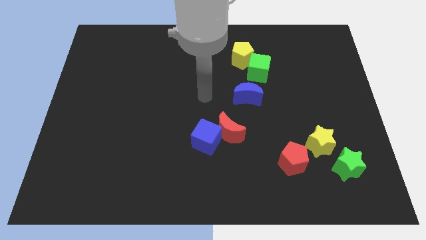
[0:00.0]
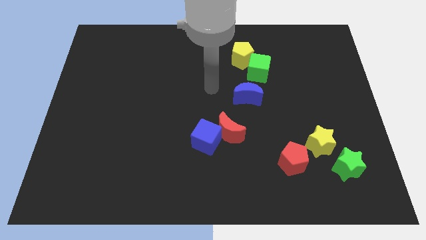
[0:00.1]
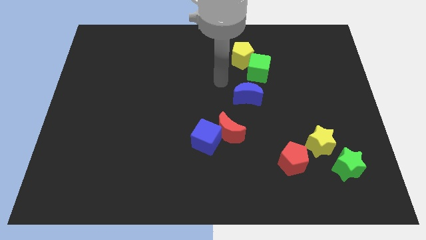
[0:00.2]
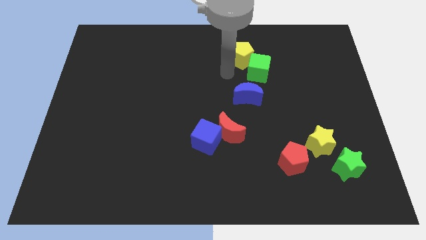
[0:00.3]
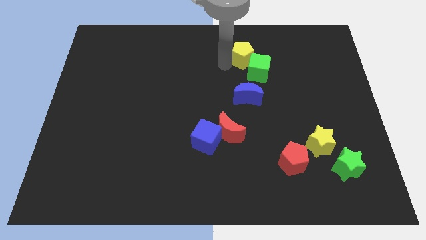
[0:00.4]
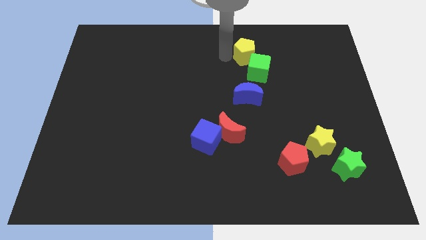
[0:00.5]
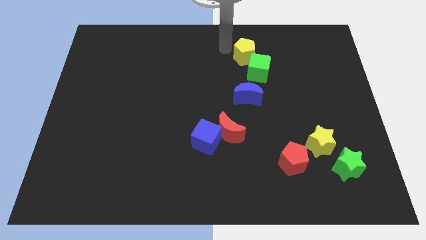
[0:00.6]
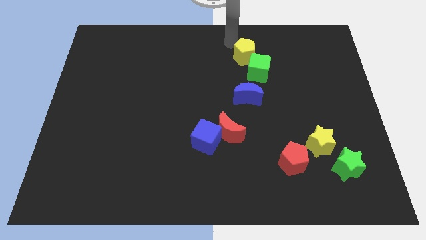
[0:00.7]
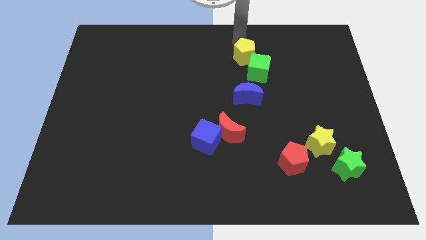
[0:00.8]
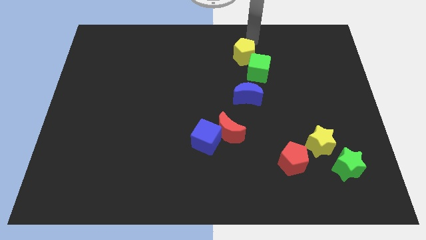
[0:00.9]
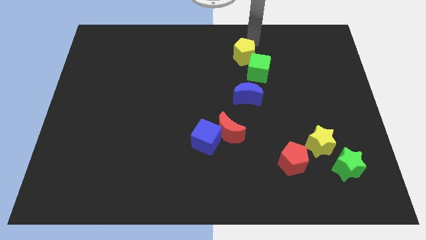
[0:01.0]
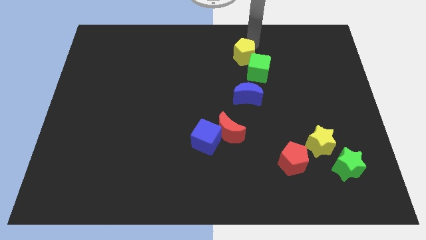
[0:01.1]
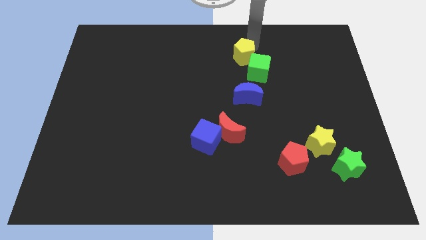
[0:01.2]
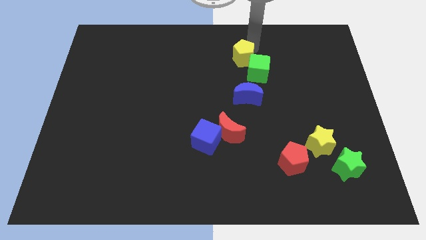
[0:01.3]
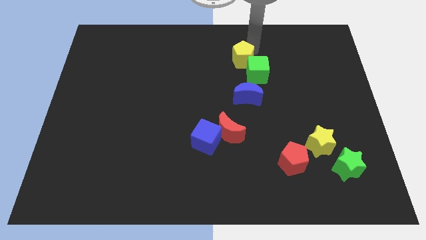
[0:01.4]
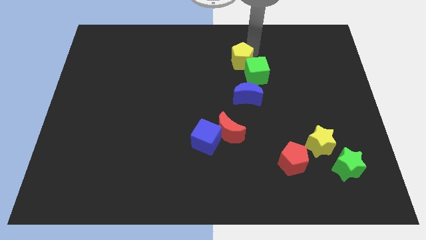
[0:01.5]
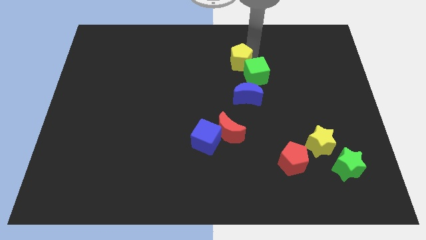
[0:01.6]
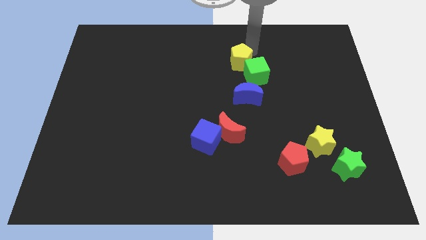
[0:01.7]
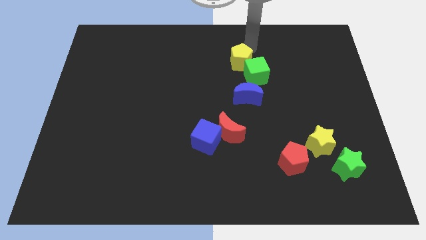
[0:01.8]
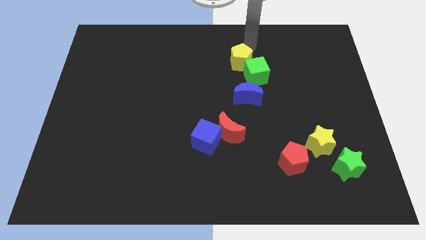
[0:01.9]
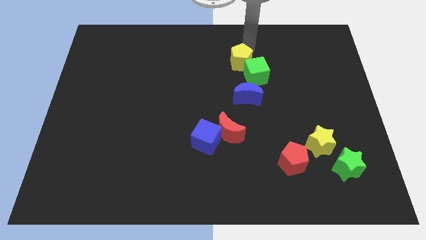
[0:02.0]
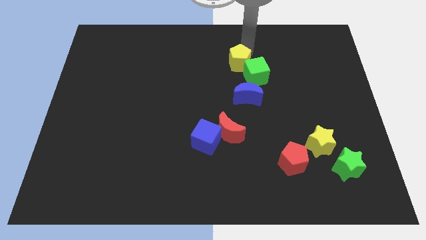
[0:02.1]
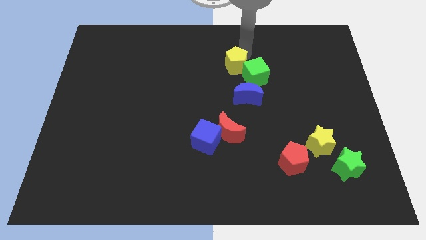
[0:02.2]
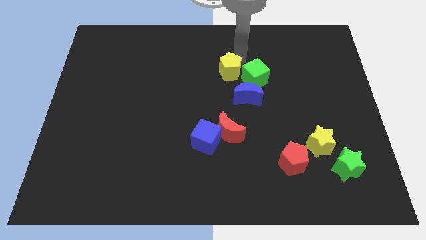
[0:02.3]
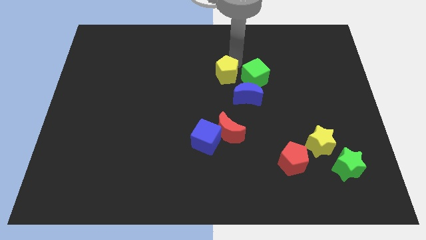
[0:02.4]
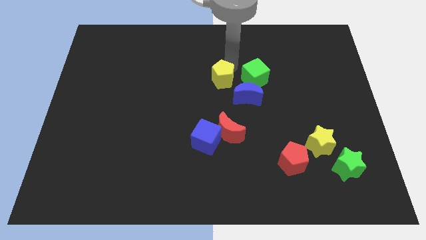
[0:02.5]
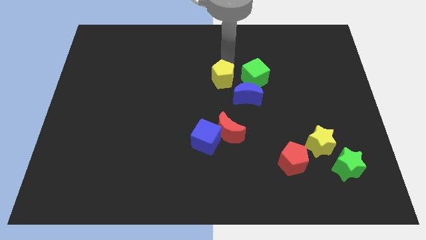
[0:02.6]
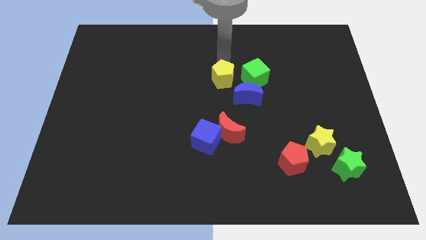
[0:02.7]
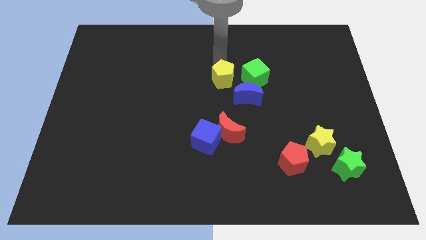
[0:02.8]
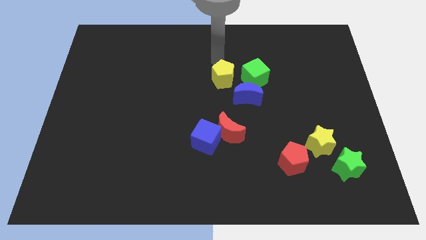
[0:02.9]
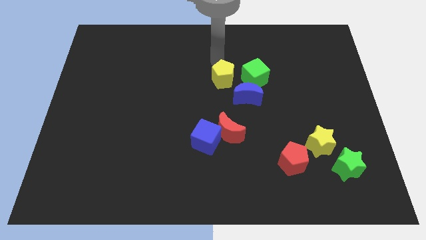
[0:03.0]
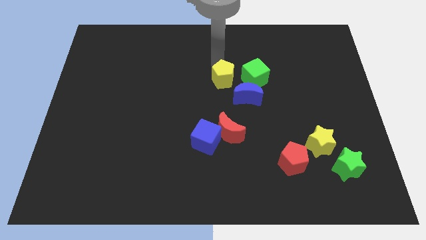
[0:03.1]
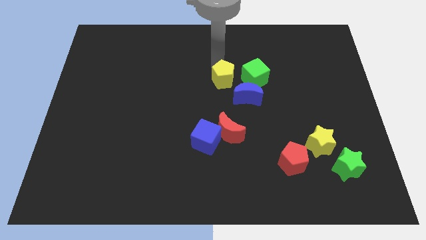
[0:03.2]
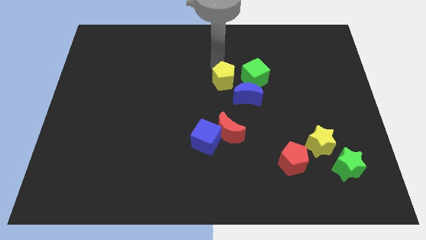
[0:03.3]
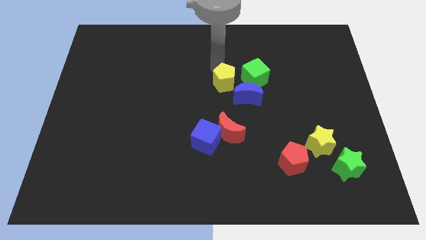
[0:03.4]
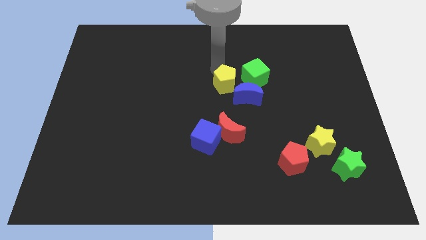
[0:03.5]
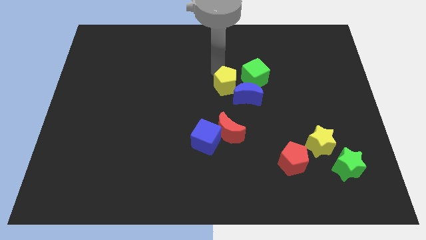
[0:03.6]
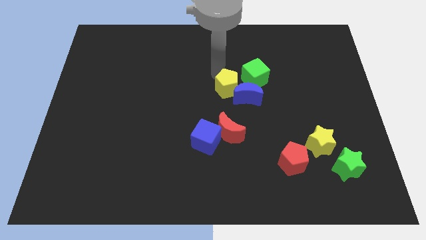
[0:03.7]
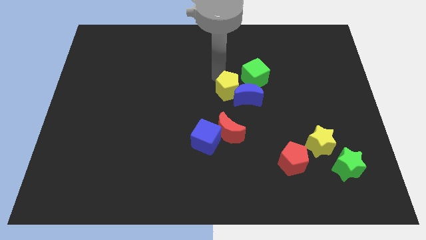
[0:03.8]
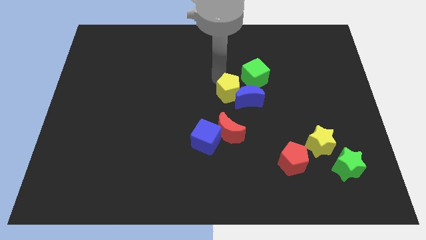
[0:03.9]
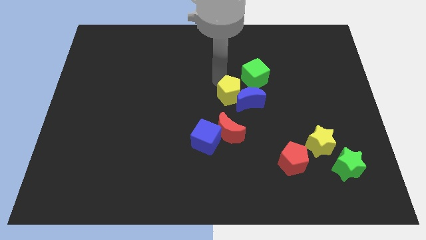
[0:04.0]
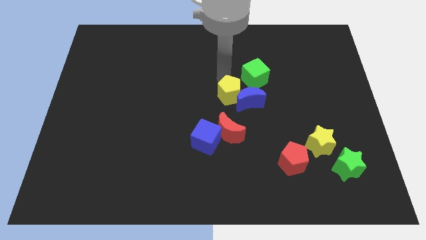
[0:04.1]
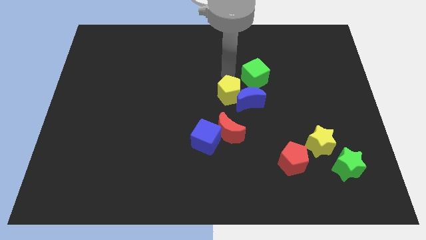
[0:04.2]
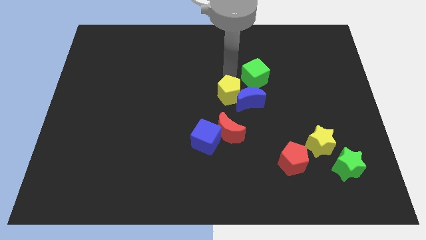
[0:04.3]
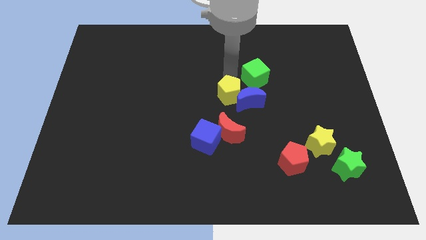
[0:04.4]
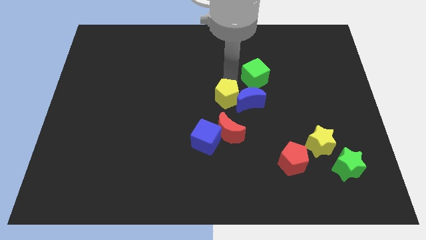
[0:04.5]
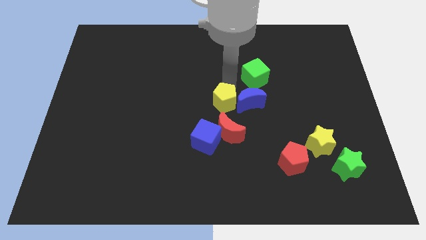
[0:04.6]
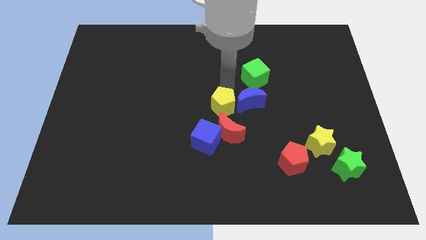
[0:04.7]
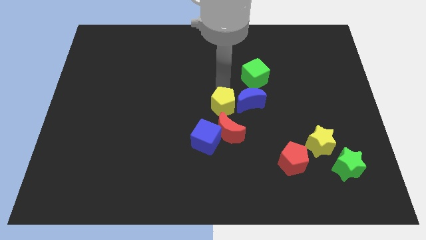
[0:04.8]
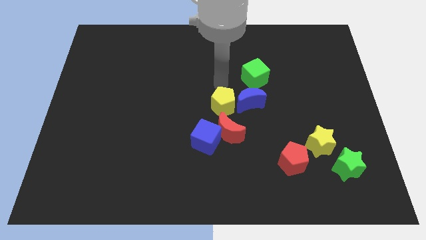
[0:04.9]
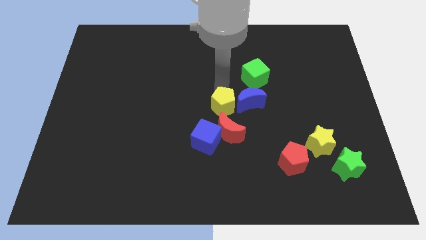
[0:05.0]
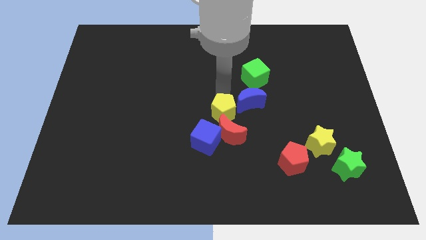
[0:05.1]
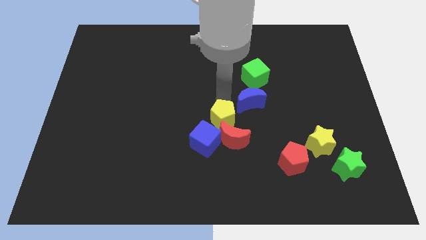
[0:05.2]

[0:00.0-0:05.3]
push the yellow pentagon next to the red moon

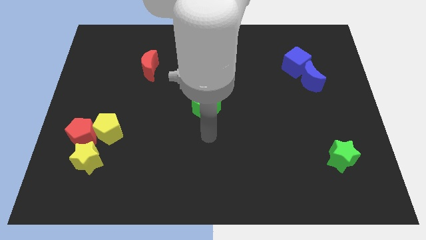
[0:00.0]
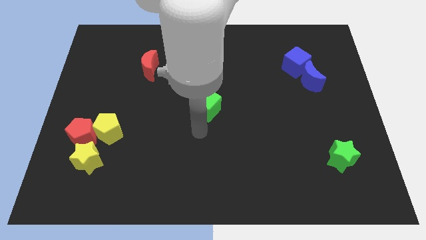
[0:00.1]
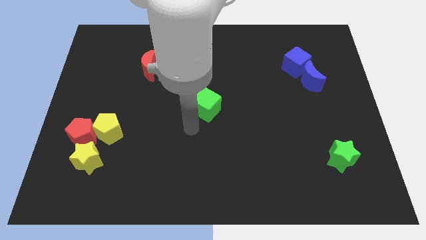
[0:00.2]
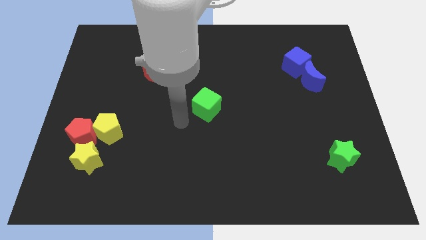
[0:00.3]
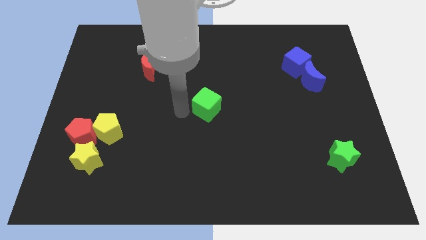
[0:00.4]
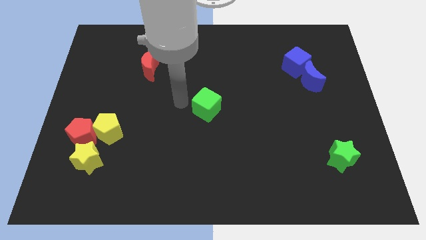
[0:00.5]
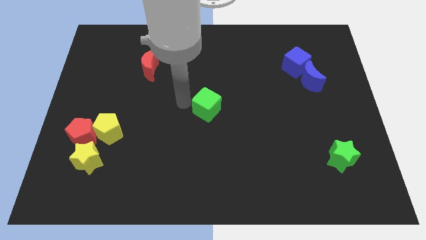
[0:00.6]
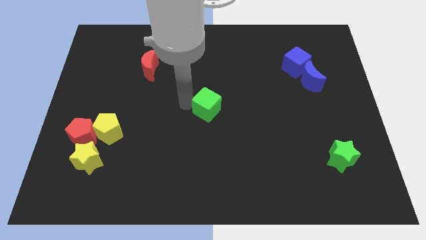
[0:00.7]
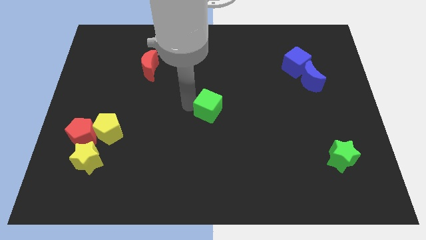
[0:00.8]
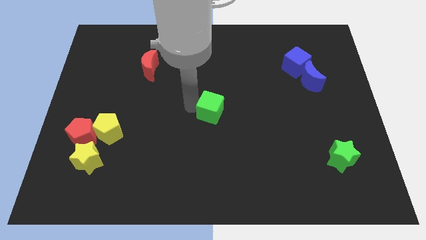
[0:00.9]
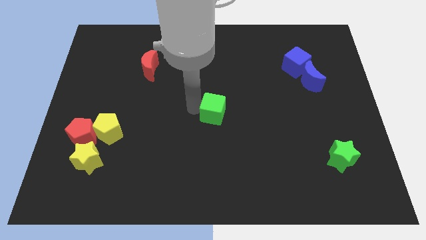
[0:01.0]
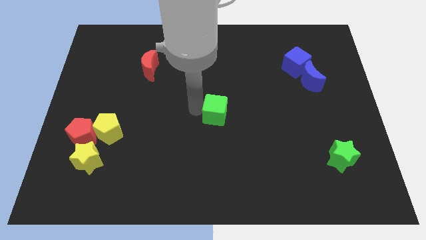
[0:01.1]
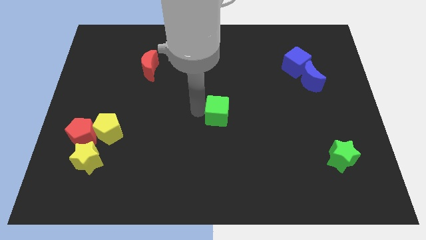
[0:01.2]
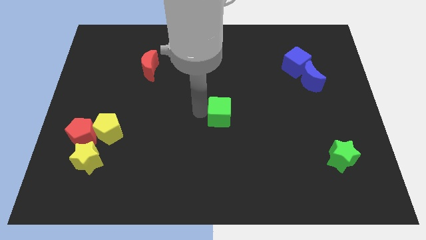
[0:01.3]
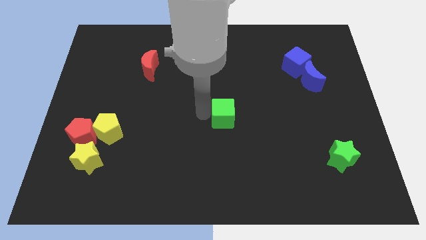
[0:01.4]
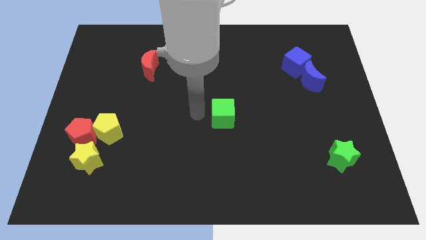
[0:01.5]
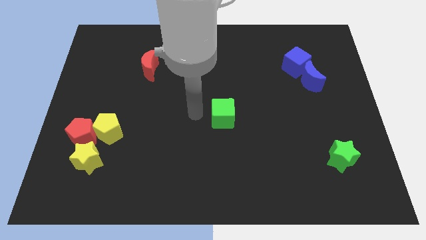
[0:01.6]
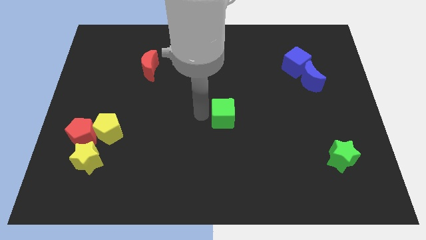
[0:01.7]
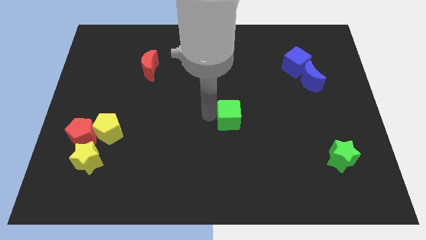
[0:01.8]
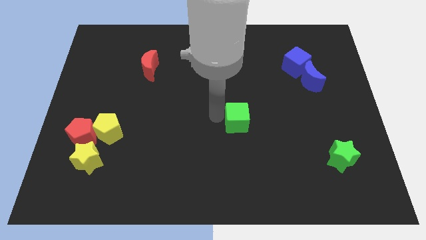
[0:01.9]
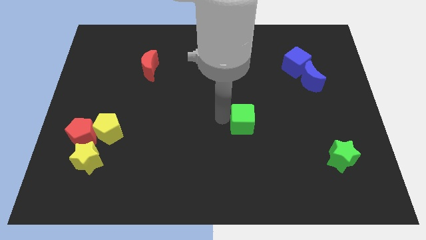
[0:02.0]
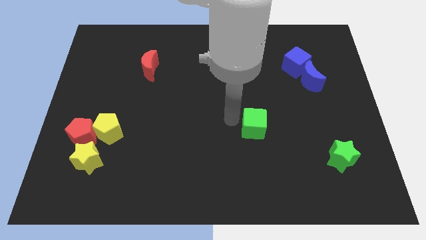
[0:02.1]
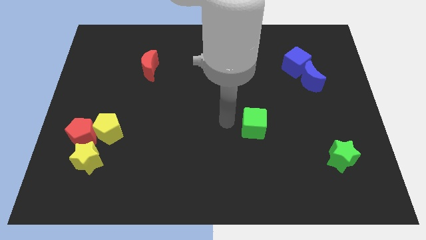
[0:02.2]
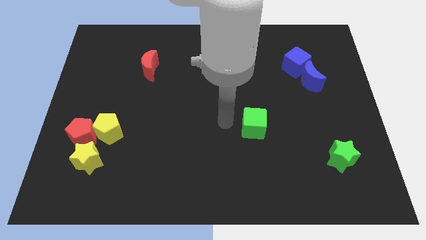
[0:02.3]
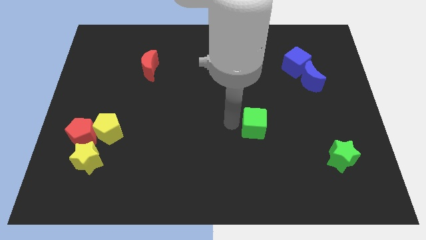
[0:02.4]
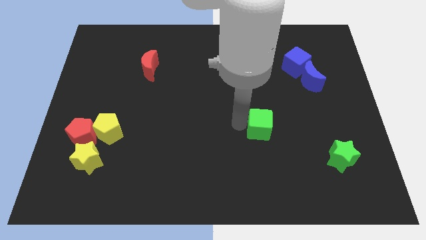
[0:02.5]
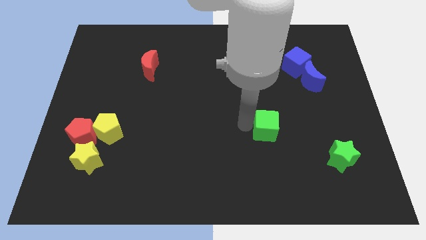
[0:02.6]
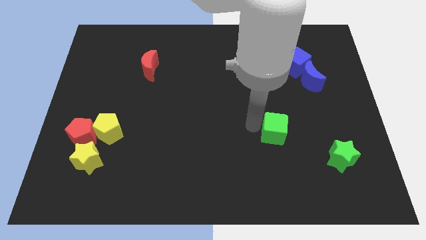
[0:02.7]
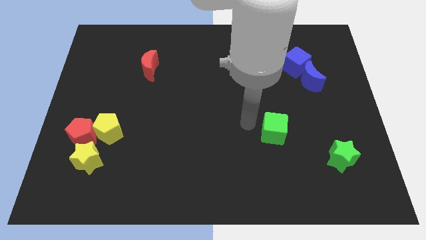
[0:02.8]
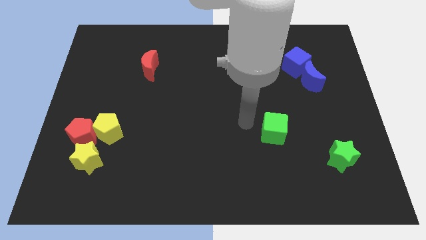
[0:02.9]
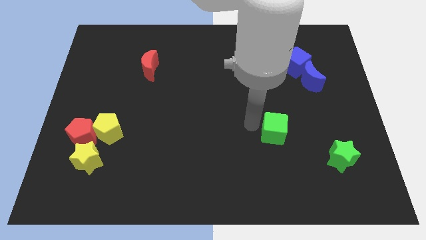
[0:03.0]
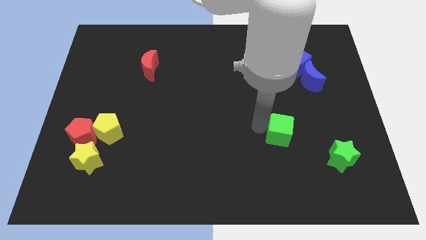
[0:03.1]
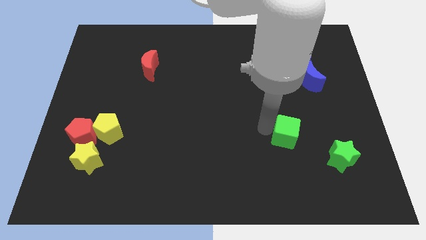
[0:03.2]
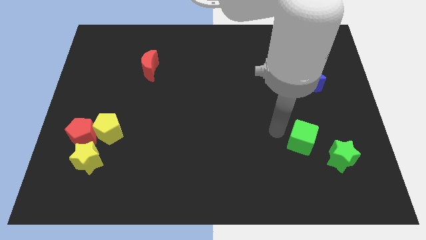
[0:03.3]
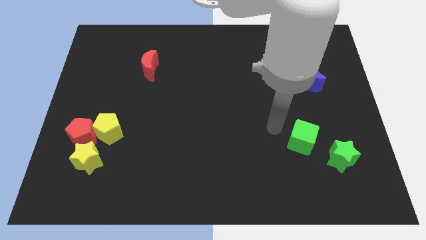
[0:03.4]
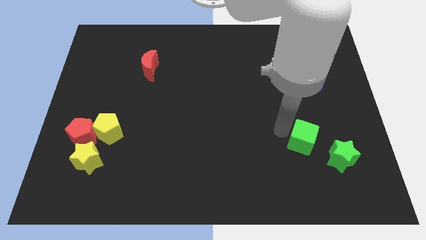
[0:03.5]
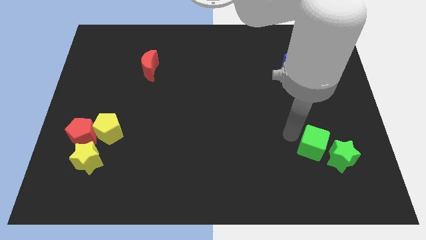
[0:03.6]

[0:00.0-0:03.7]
put the green cube towards the green star
